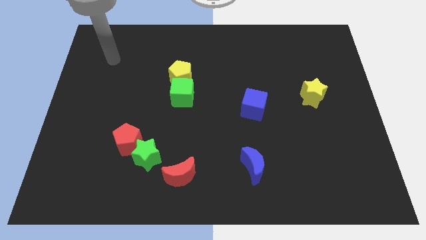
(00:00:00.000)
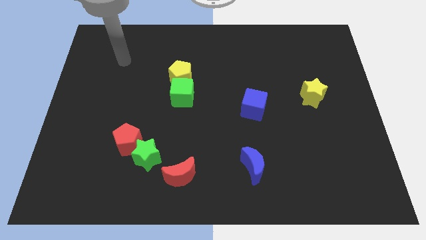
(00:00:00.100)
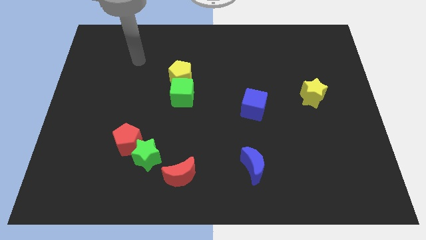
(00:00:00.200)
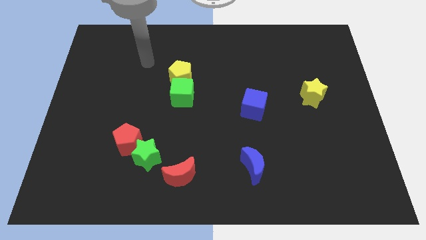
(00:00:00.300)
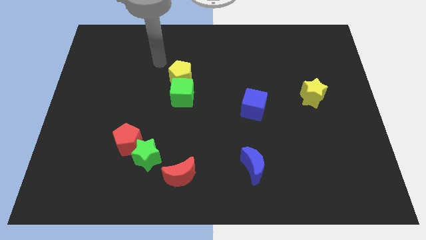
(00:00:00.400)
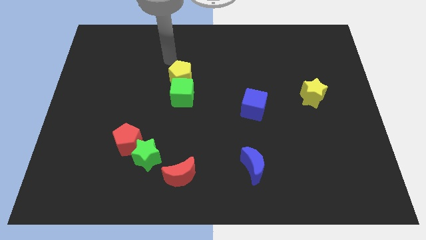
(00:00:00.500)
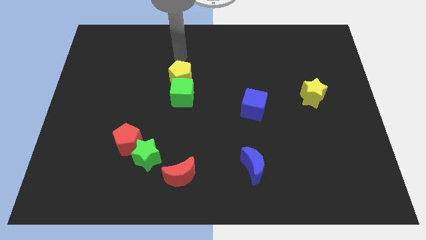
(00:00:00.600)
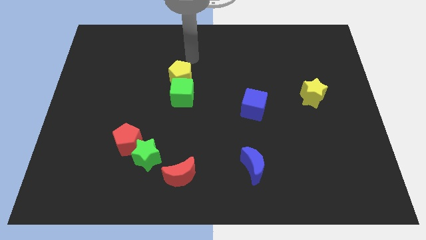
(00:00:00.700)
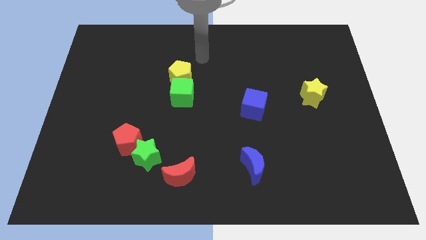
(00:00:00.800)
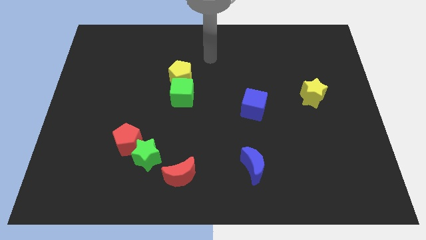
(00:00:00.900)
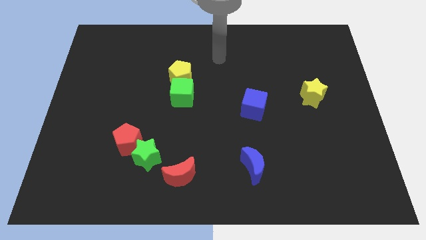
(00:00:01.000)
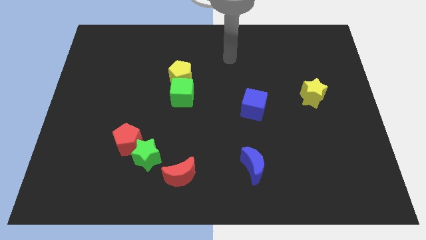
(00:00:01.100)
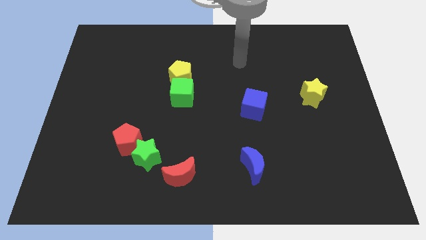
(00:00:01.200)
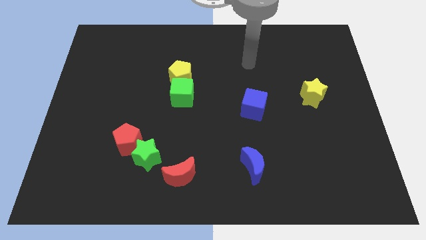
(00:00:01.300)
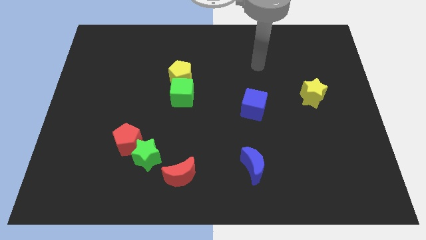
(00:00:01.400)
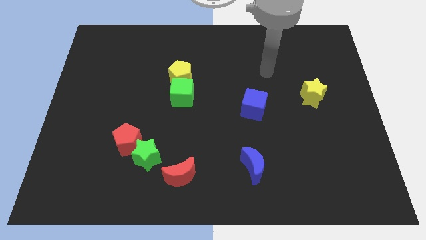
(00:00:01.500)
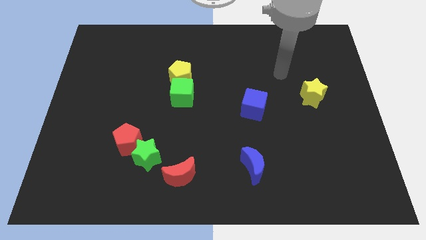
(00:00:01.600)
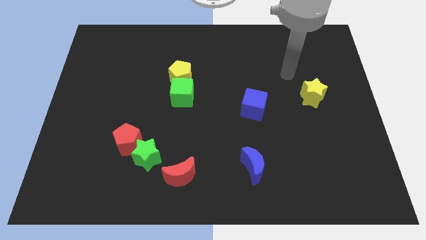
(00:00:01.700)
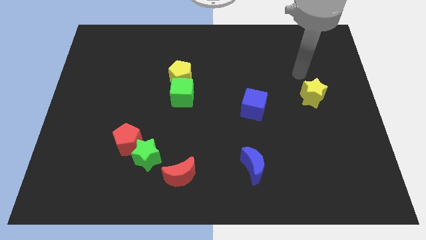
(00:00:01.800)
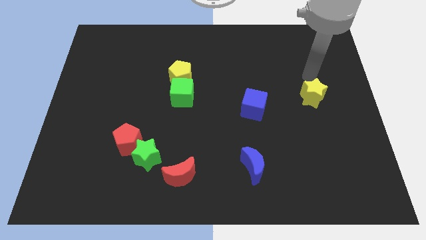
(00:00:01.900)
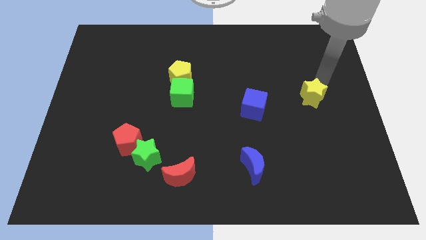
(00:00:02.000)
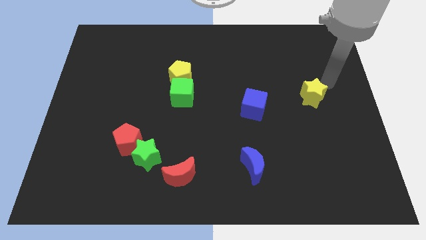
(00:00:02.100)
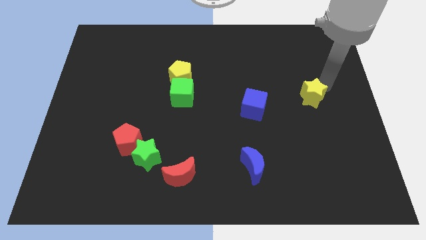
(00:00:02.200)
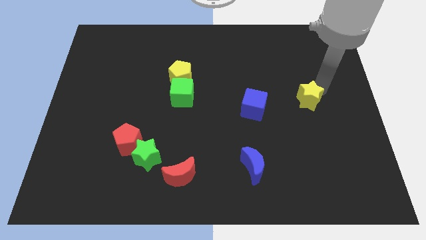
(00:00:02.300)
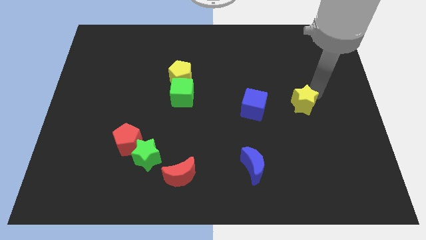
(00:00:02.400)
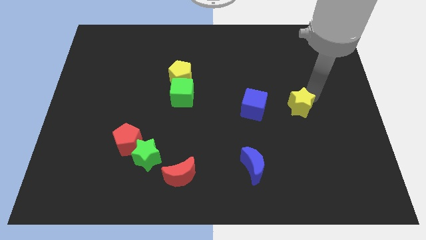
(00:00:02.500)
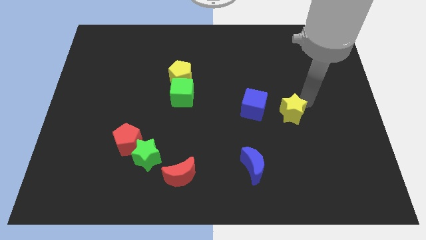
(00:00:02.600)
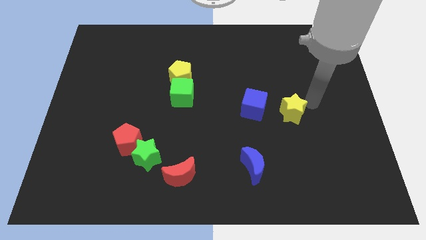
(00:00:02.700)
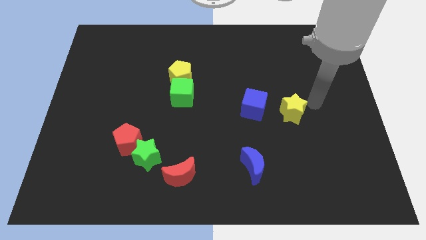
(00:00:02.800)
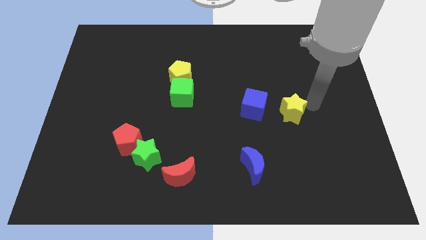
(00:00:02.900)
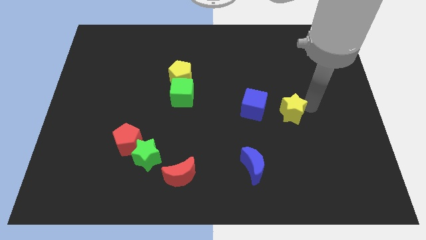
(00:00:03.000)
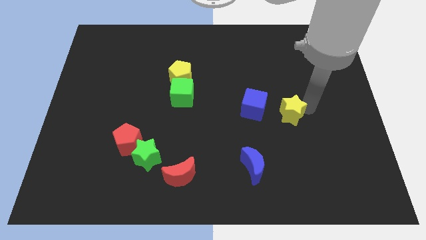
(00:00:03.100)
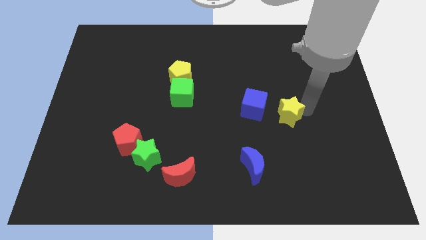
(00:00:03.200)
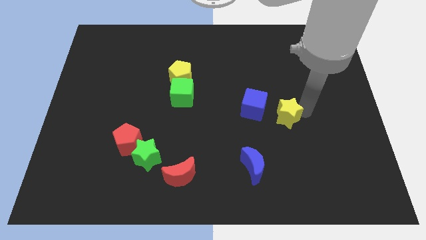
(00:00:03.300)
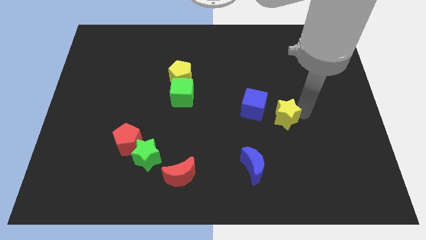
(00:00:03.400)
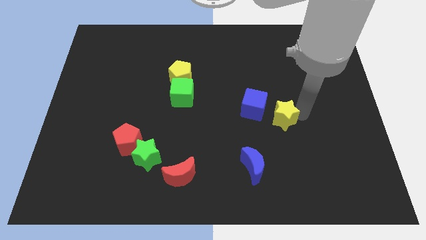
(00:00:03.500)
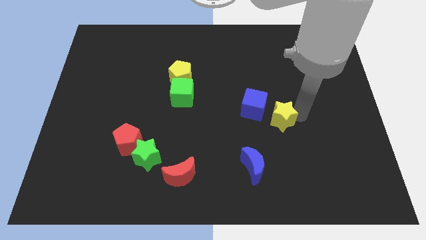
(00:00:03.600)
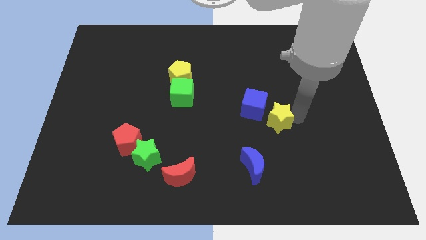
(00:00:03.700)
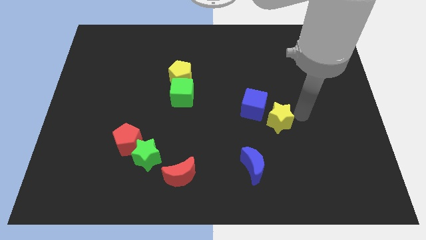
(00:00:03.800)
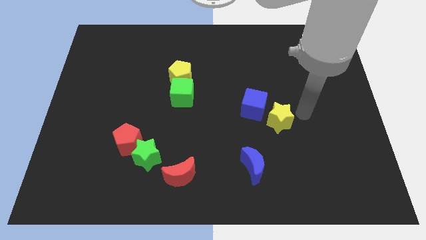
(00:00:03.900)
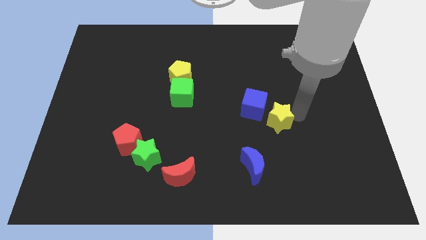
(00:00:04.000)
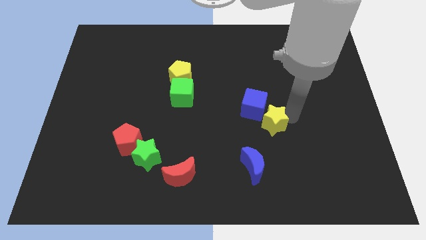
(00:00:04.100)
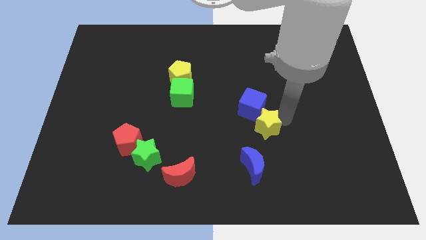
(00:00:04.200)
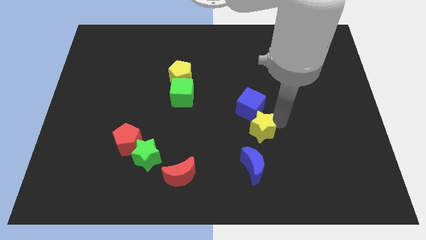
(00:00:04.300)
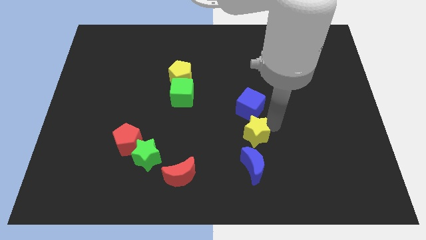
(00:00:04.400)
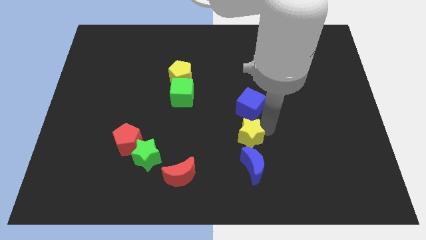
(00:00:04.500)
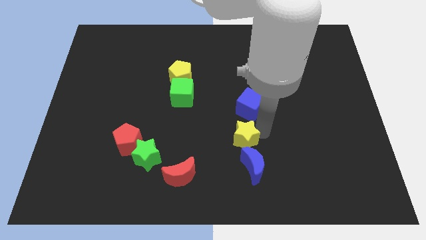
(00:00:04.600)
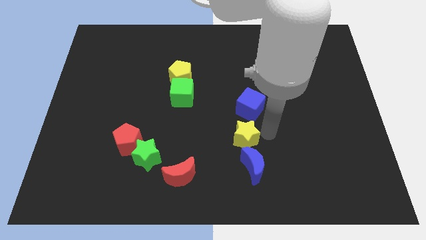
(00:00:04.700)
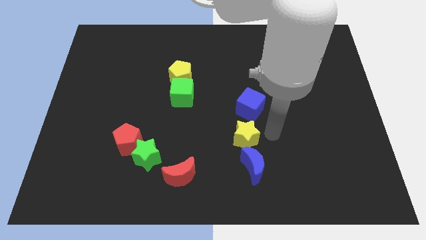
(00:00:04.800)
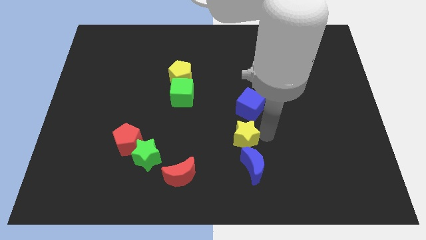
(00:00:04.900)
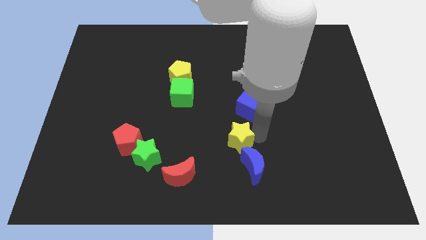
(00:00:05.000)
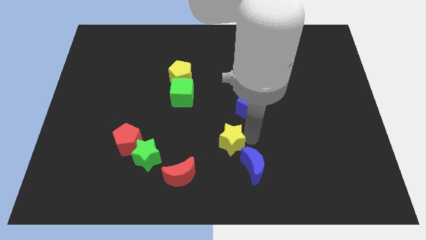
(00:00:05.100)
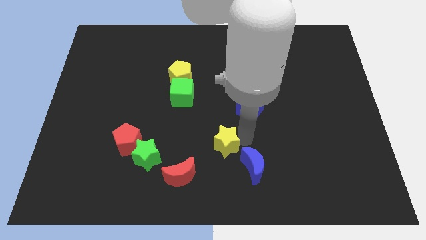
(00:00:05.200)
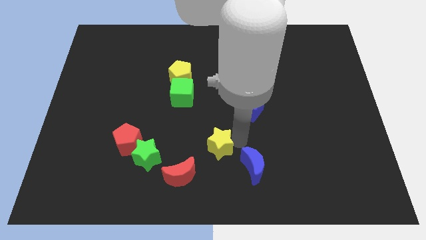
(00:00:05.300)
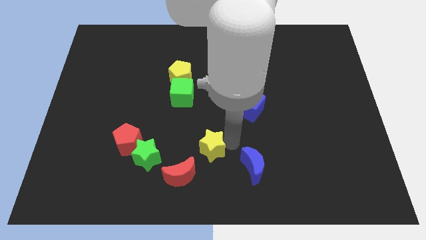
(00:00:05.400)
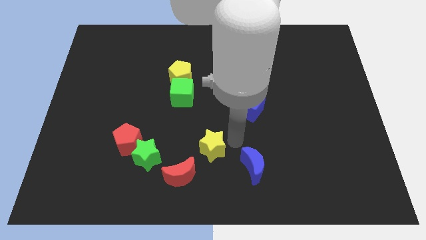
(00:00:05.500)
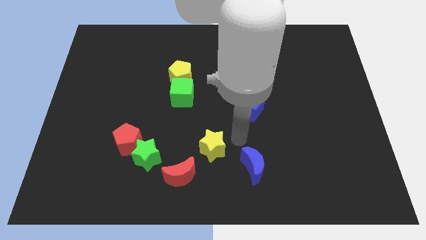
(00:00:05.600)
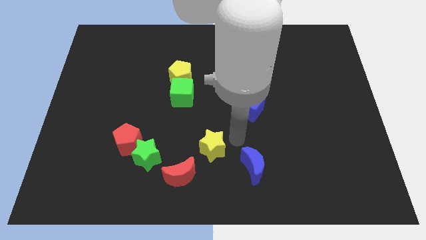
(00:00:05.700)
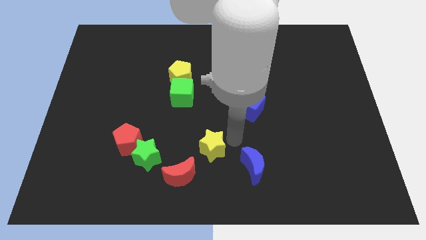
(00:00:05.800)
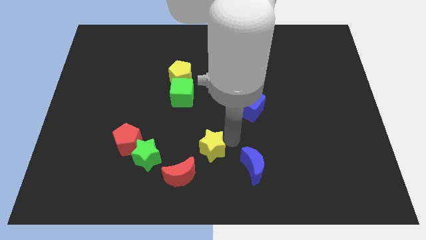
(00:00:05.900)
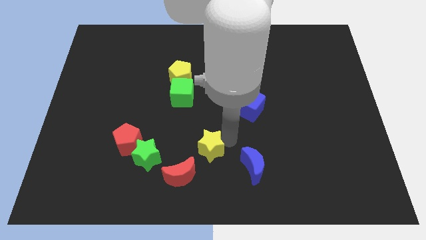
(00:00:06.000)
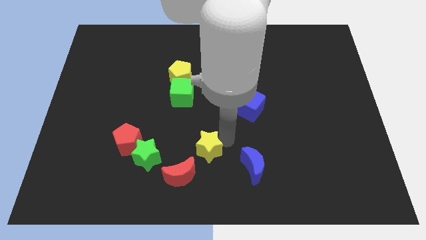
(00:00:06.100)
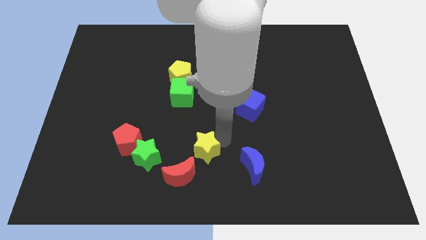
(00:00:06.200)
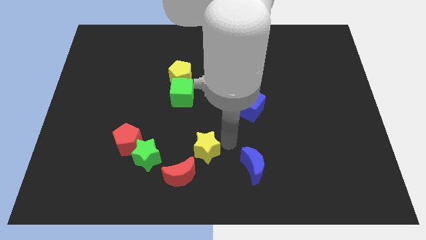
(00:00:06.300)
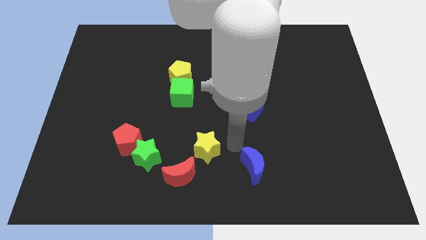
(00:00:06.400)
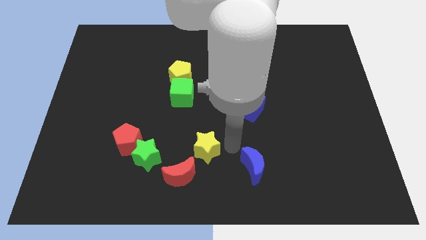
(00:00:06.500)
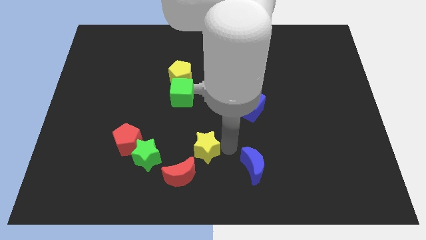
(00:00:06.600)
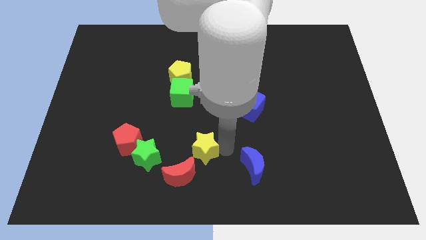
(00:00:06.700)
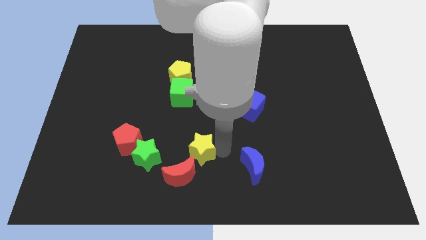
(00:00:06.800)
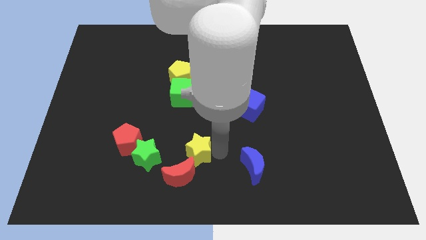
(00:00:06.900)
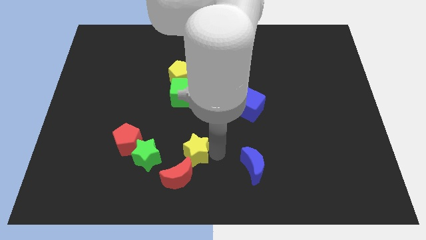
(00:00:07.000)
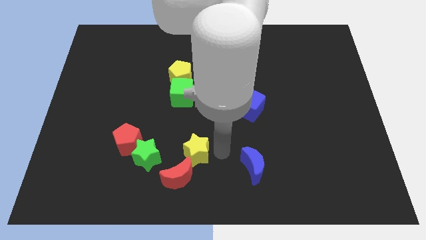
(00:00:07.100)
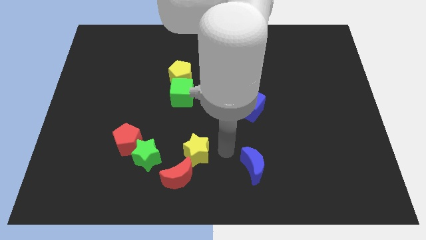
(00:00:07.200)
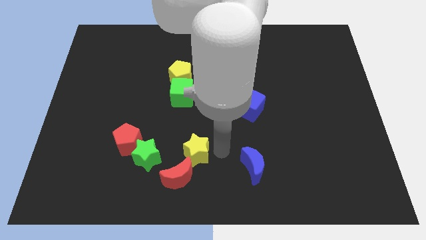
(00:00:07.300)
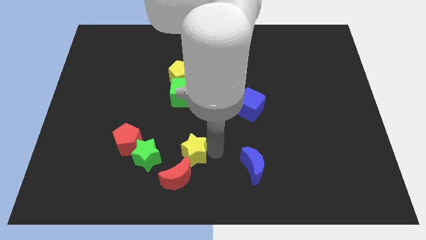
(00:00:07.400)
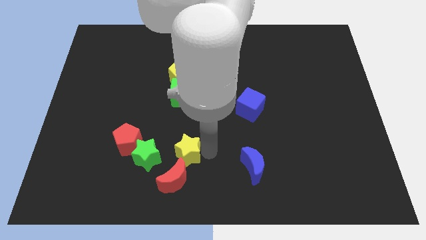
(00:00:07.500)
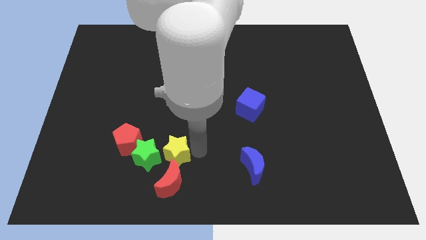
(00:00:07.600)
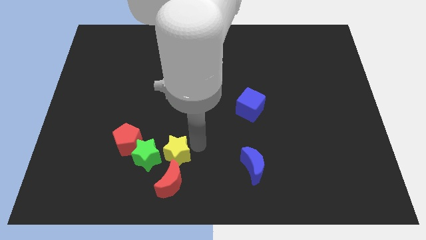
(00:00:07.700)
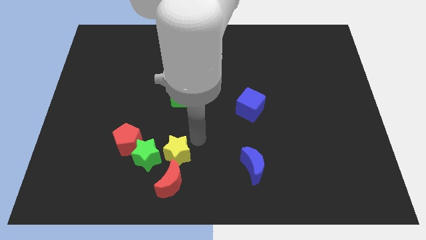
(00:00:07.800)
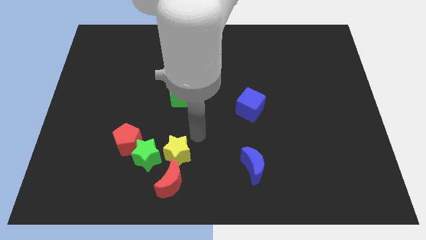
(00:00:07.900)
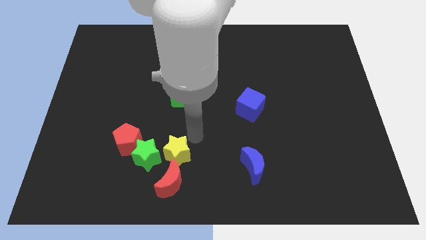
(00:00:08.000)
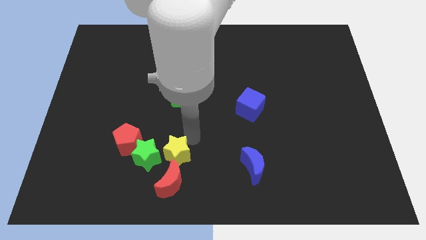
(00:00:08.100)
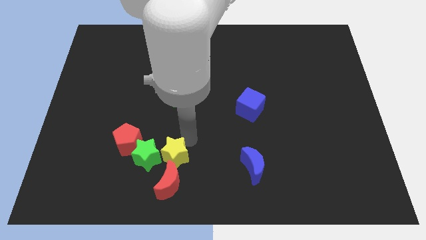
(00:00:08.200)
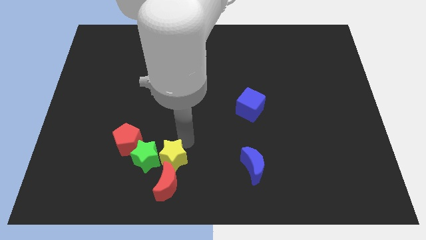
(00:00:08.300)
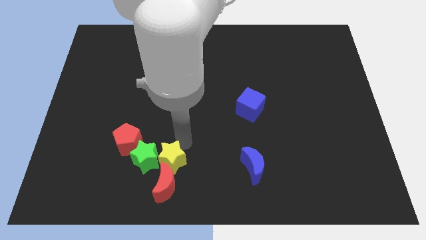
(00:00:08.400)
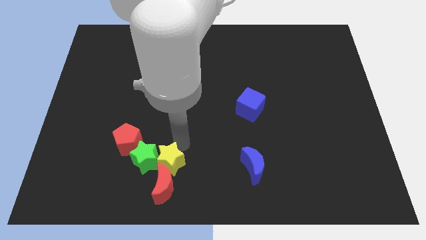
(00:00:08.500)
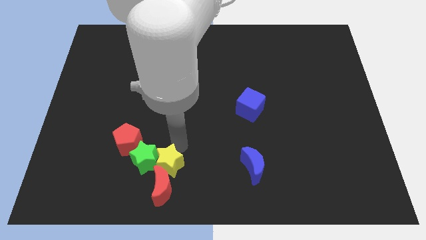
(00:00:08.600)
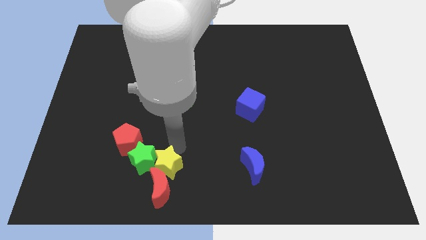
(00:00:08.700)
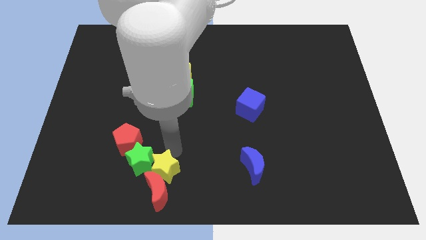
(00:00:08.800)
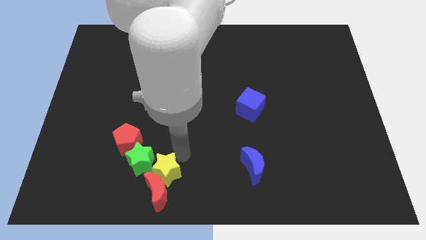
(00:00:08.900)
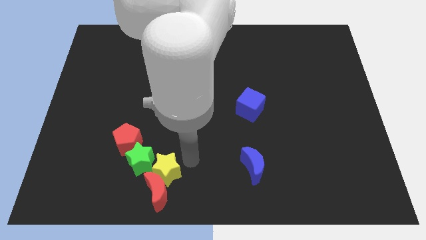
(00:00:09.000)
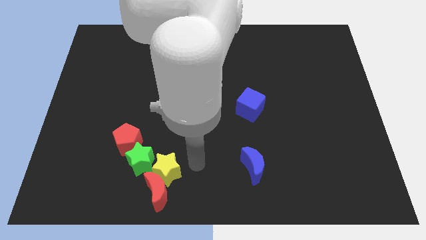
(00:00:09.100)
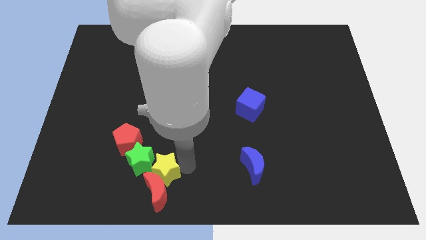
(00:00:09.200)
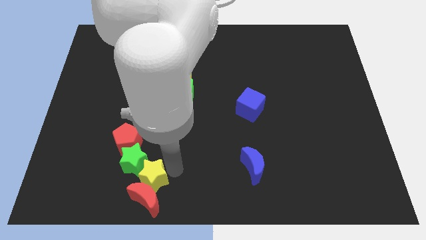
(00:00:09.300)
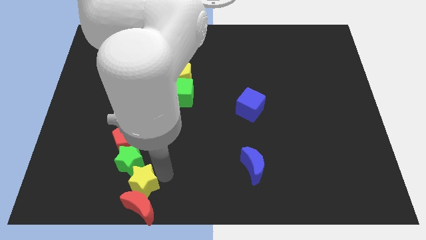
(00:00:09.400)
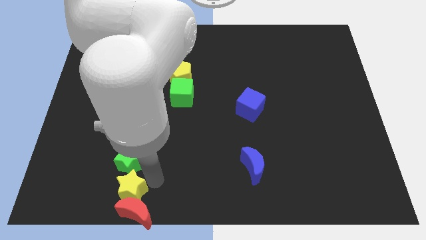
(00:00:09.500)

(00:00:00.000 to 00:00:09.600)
put the yellow star diagonally down and to the left of the green star
